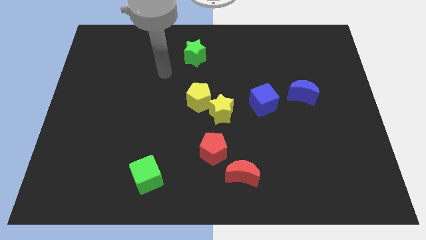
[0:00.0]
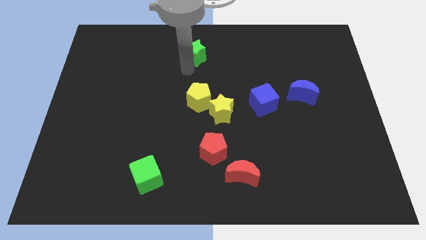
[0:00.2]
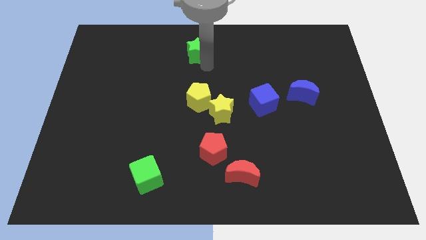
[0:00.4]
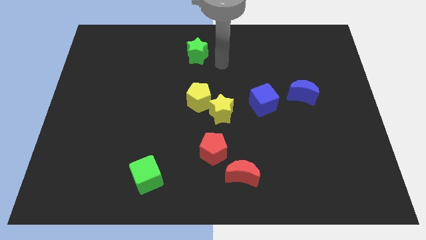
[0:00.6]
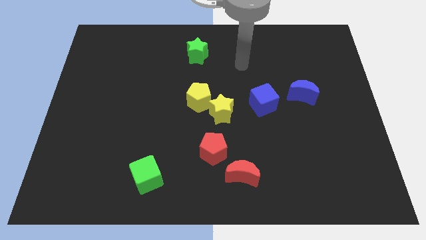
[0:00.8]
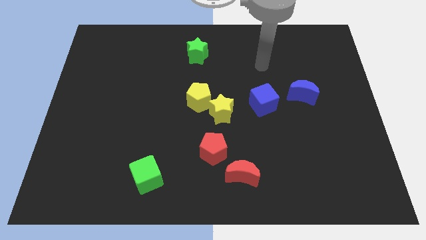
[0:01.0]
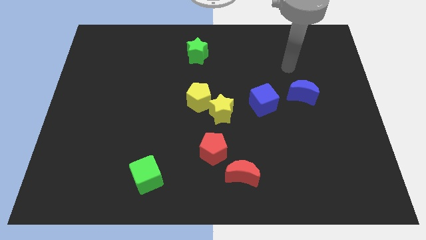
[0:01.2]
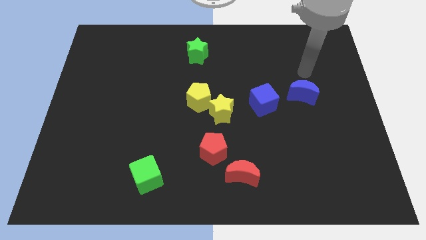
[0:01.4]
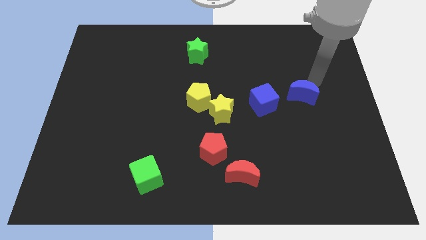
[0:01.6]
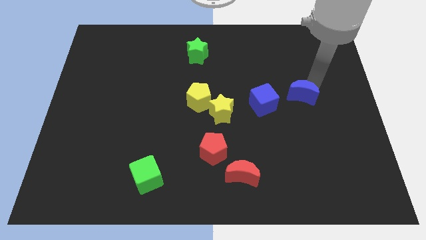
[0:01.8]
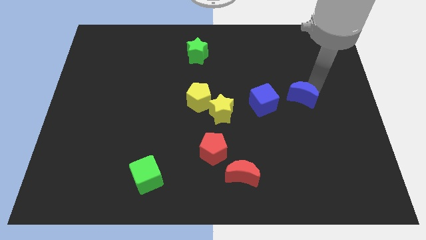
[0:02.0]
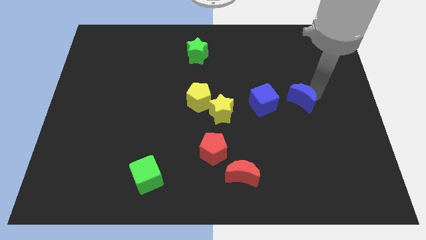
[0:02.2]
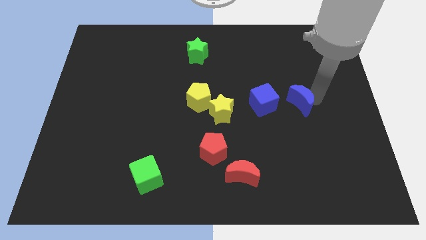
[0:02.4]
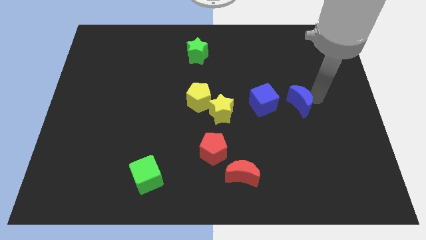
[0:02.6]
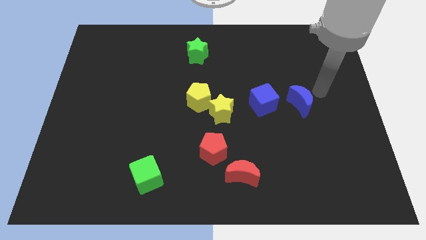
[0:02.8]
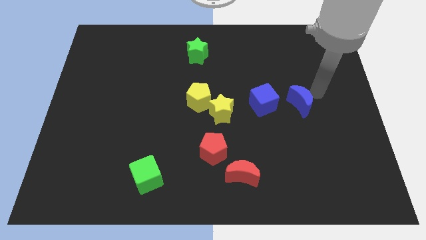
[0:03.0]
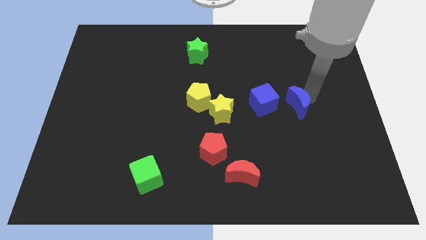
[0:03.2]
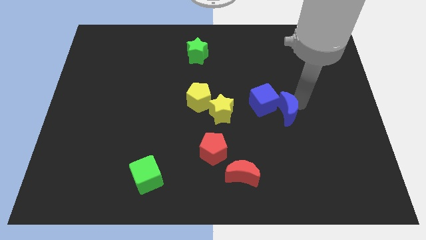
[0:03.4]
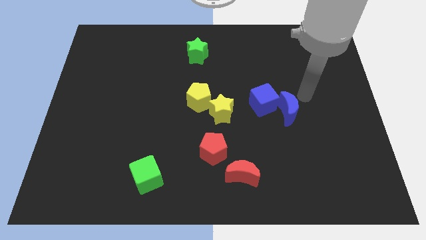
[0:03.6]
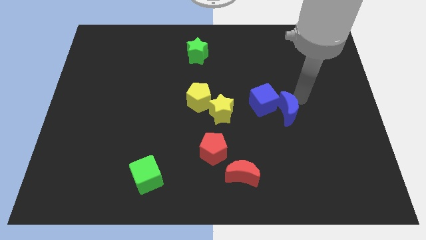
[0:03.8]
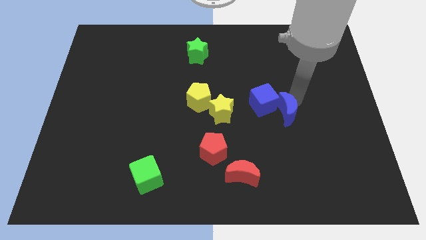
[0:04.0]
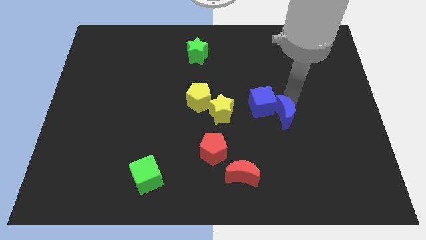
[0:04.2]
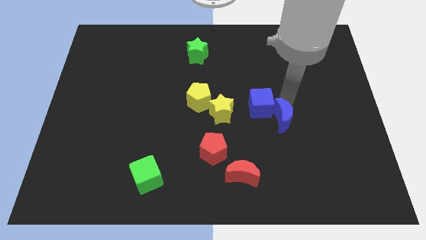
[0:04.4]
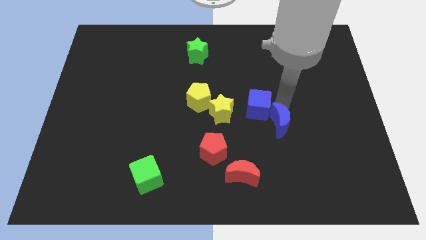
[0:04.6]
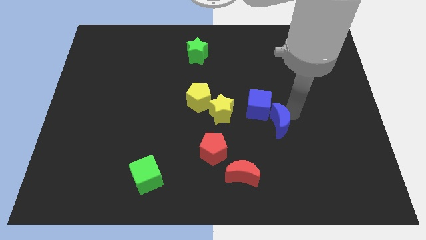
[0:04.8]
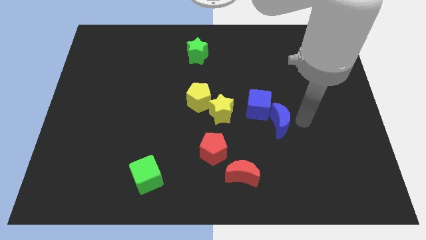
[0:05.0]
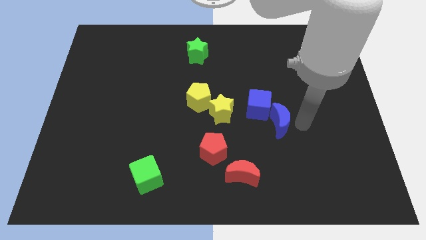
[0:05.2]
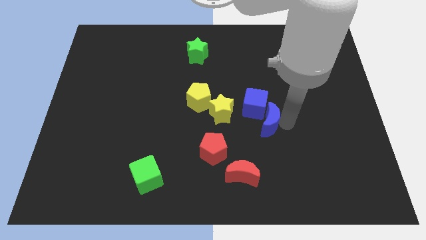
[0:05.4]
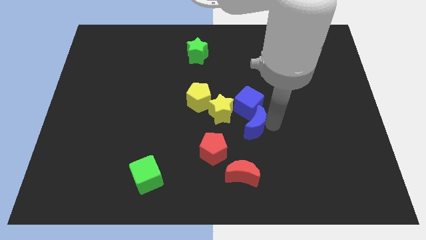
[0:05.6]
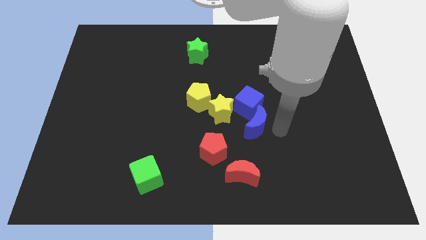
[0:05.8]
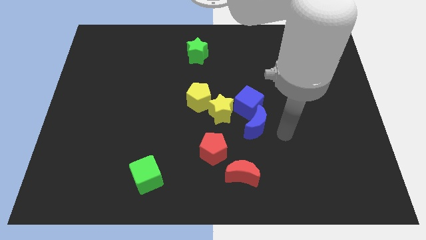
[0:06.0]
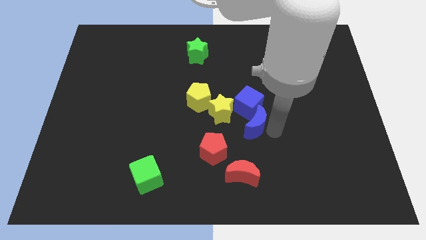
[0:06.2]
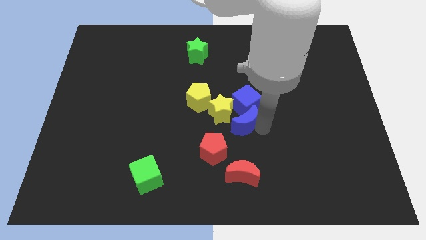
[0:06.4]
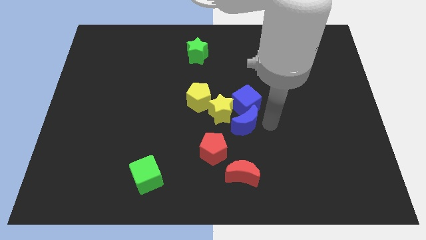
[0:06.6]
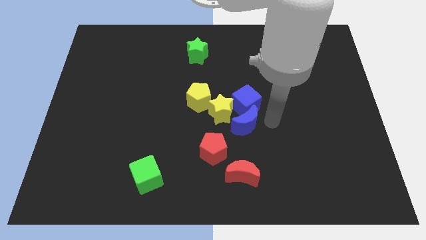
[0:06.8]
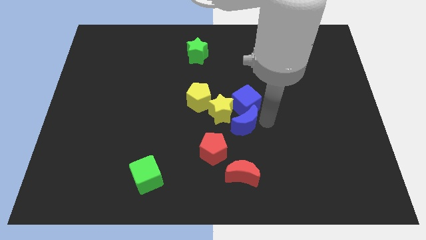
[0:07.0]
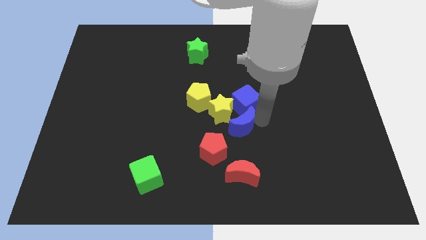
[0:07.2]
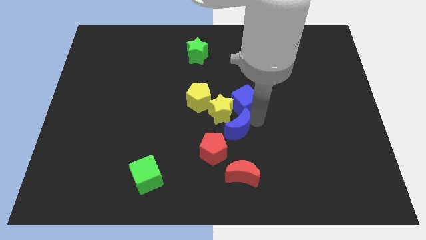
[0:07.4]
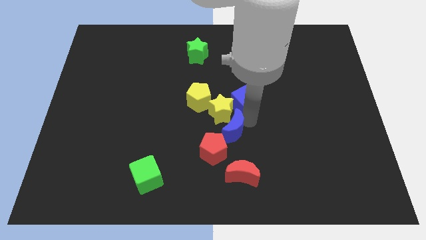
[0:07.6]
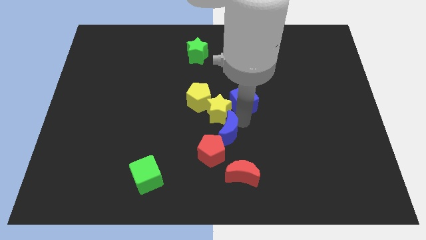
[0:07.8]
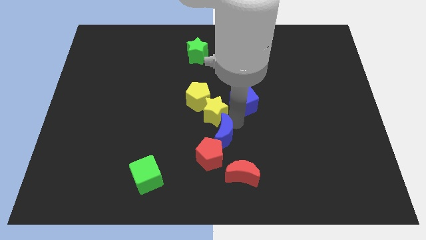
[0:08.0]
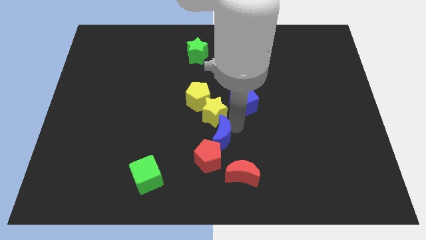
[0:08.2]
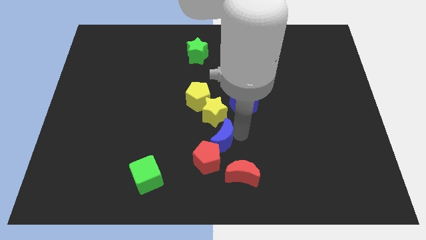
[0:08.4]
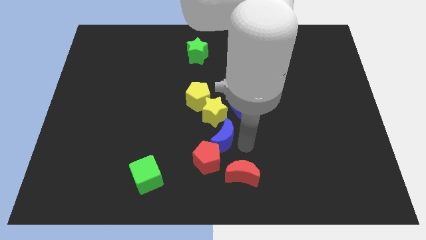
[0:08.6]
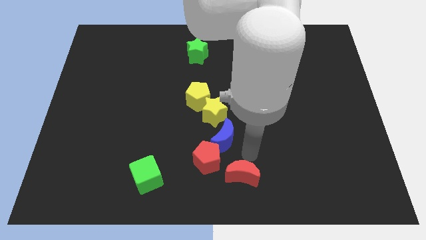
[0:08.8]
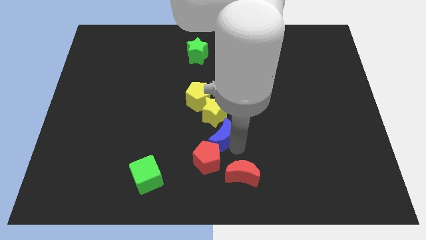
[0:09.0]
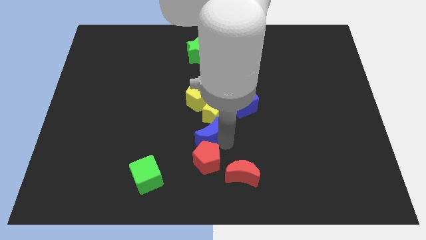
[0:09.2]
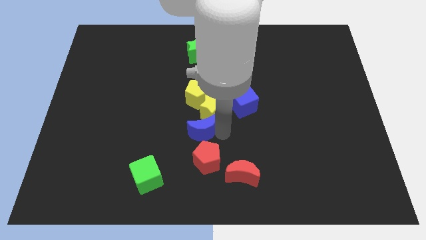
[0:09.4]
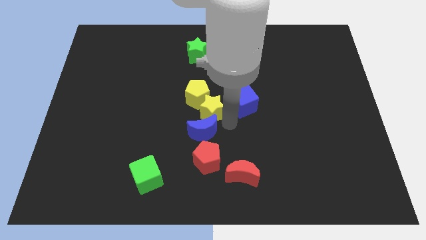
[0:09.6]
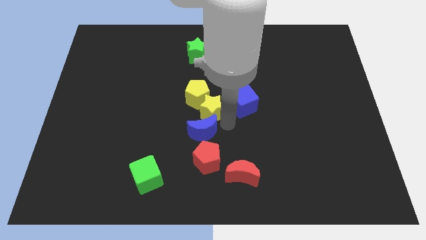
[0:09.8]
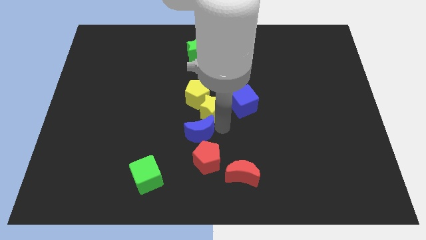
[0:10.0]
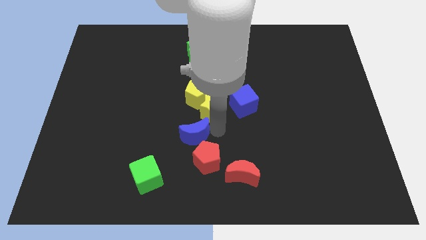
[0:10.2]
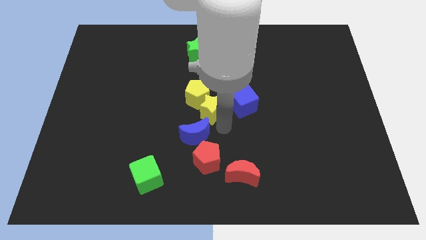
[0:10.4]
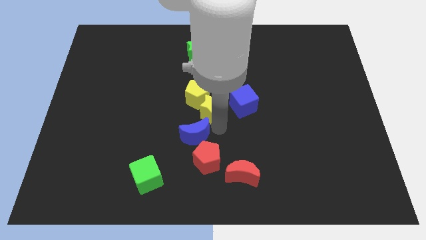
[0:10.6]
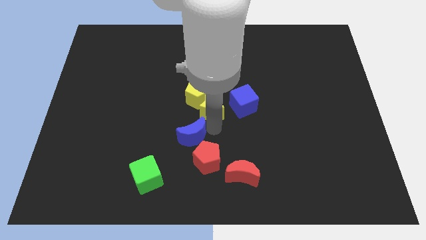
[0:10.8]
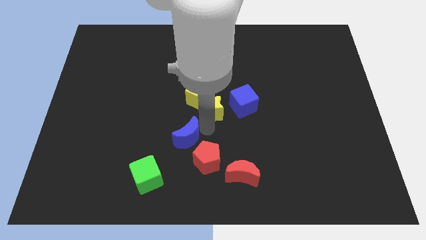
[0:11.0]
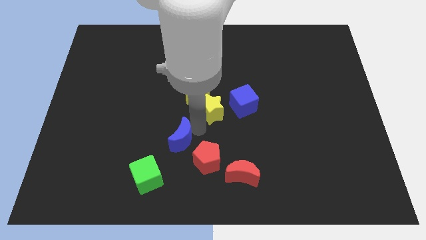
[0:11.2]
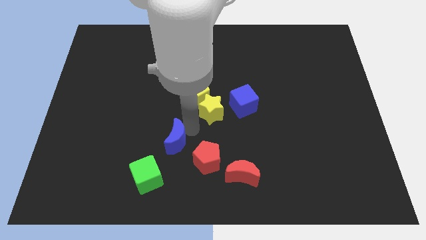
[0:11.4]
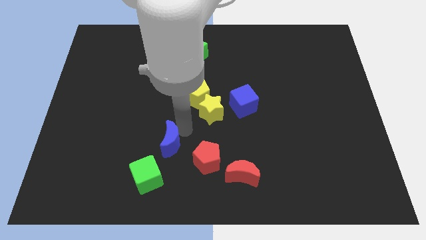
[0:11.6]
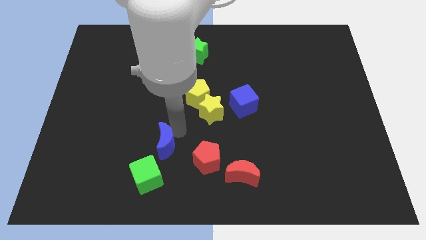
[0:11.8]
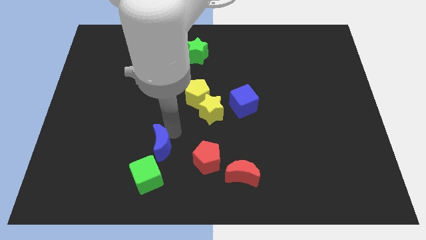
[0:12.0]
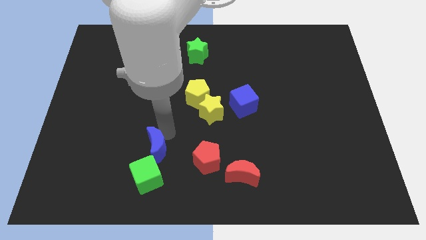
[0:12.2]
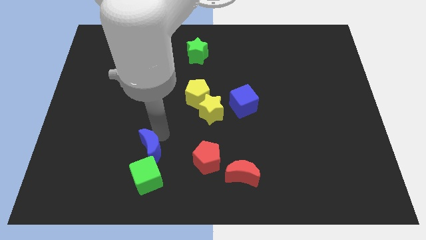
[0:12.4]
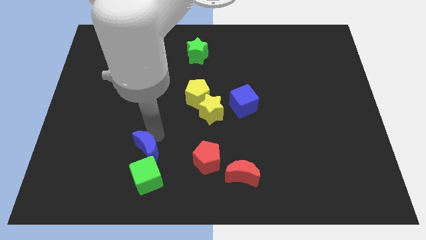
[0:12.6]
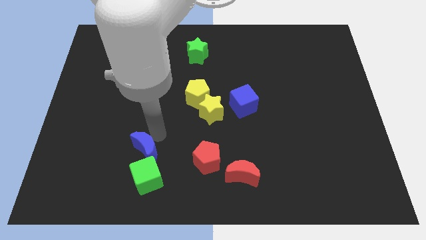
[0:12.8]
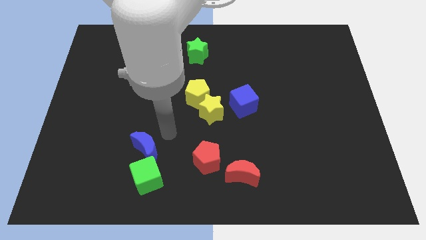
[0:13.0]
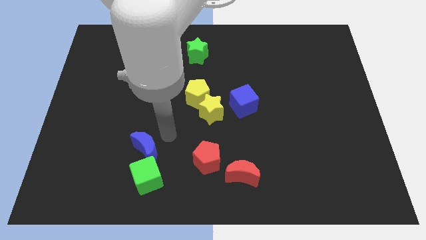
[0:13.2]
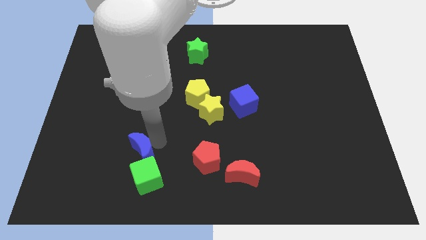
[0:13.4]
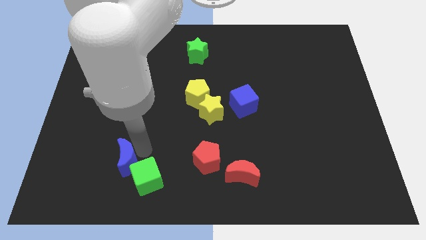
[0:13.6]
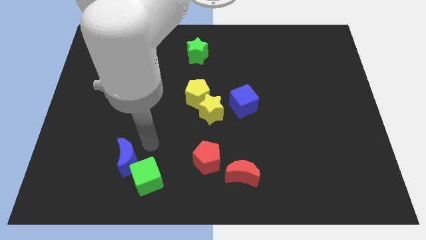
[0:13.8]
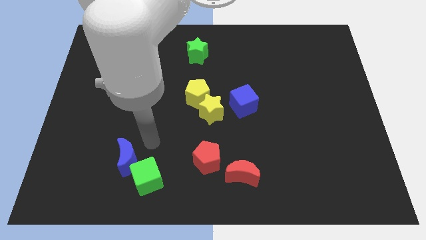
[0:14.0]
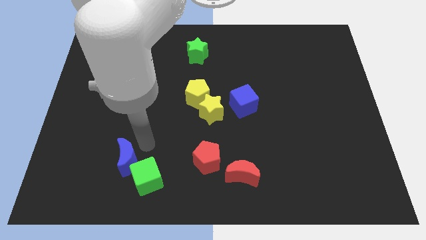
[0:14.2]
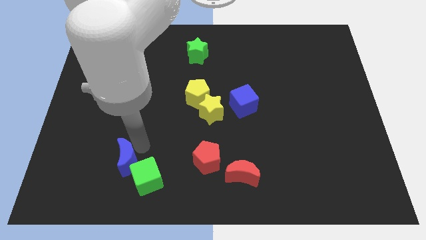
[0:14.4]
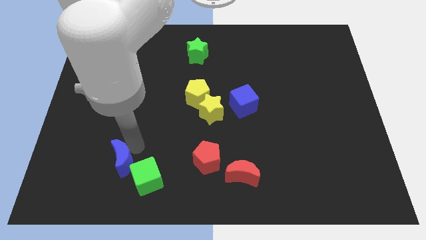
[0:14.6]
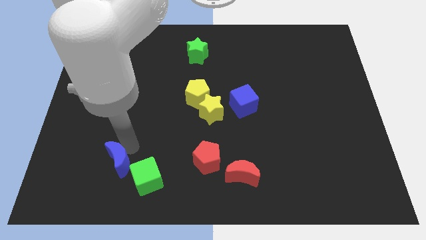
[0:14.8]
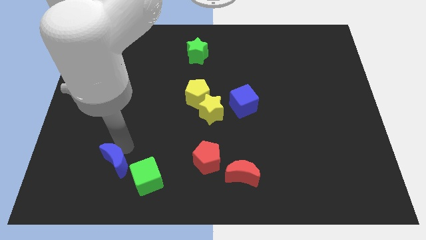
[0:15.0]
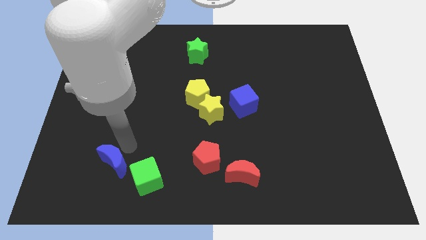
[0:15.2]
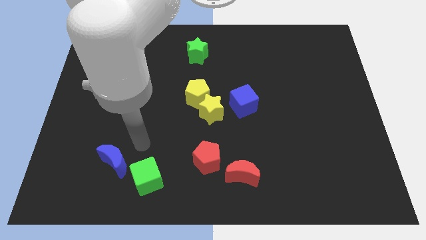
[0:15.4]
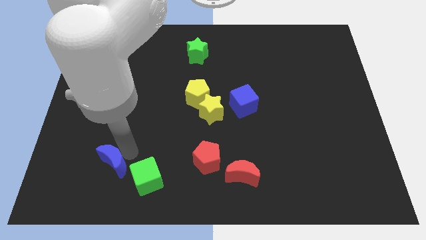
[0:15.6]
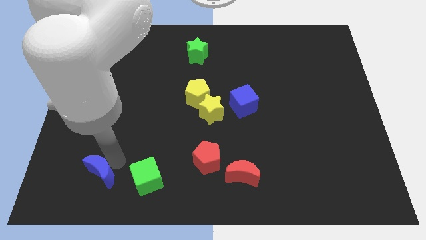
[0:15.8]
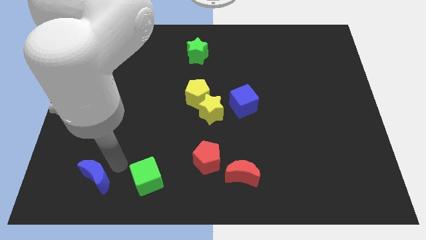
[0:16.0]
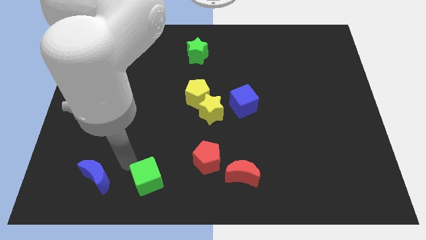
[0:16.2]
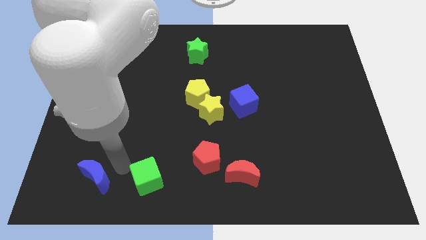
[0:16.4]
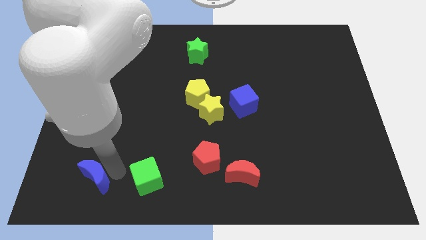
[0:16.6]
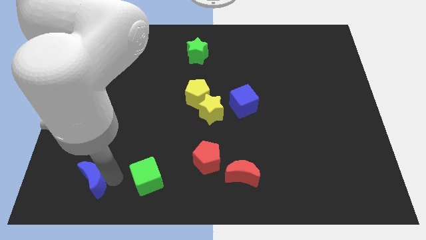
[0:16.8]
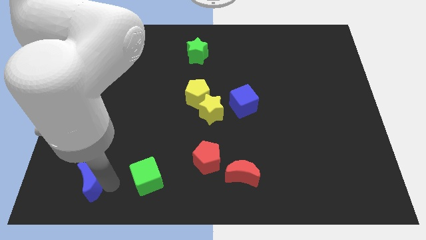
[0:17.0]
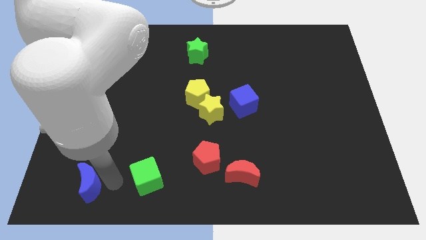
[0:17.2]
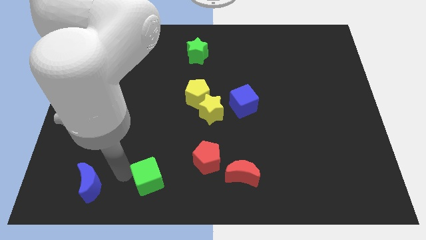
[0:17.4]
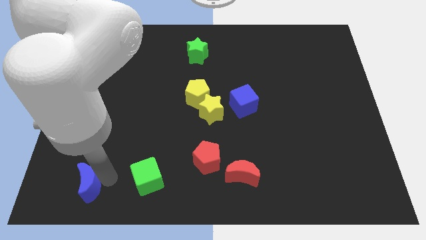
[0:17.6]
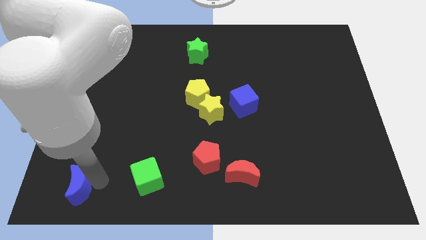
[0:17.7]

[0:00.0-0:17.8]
push the blue moon to the bottom left corner
